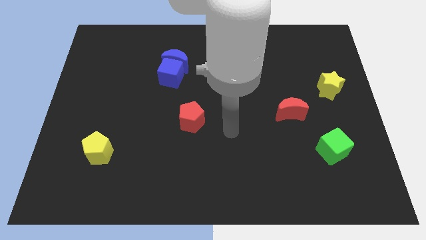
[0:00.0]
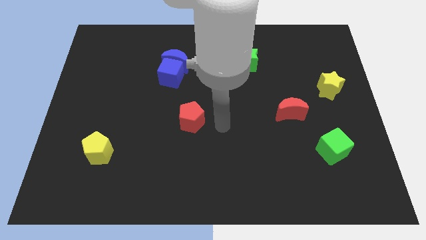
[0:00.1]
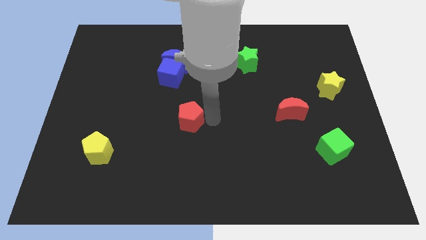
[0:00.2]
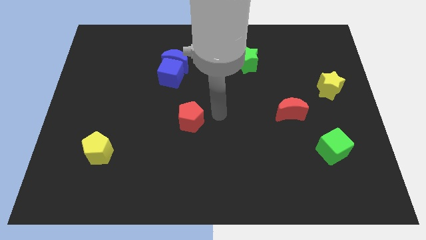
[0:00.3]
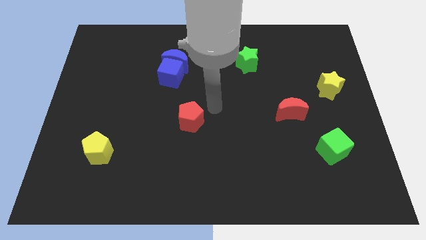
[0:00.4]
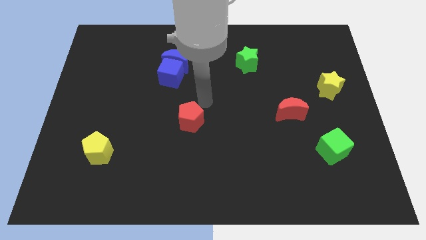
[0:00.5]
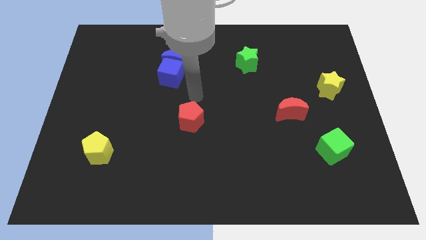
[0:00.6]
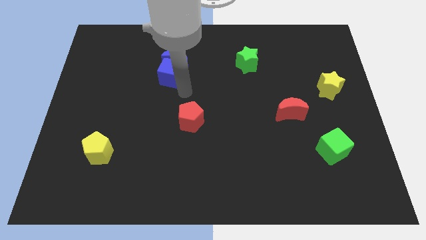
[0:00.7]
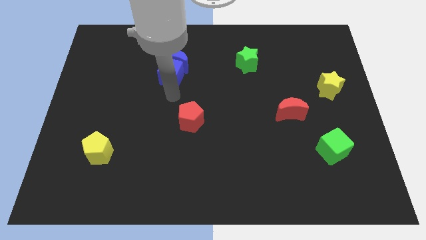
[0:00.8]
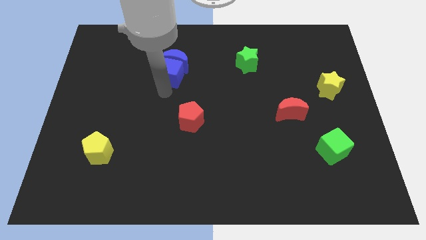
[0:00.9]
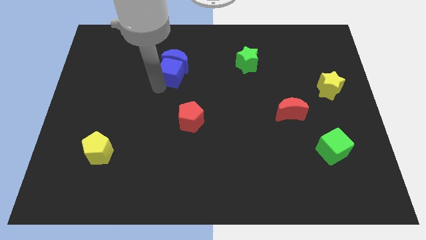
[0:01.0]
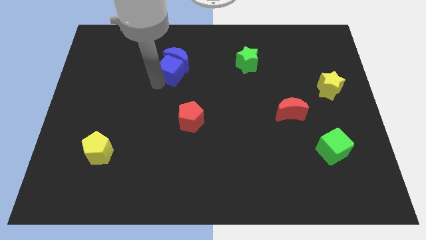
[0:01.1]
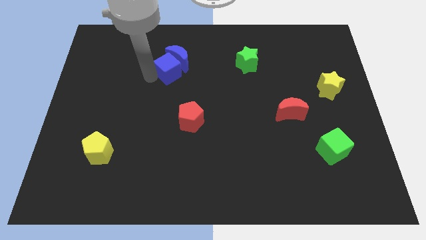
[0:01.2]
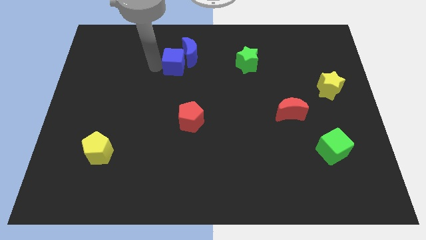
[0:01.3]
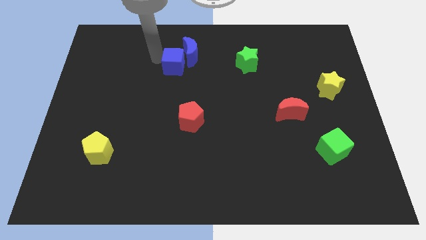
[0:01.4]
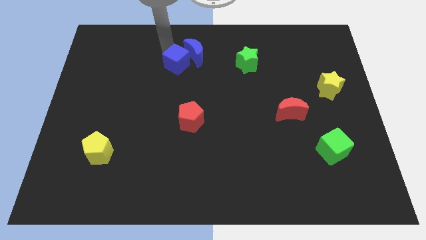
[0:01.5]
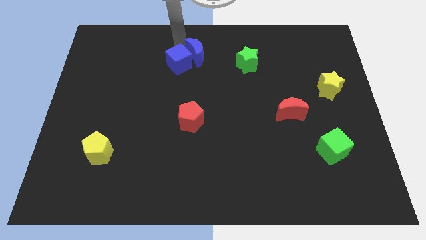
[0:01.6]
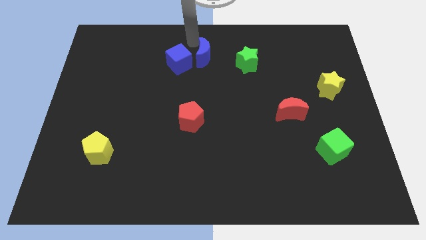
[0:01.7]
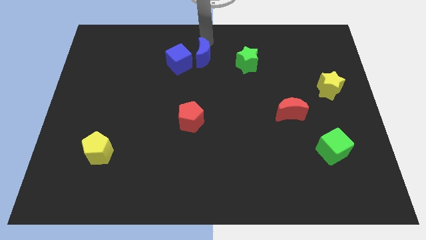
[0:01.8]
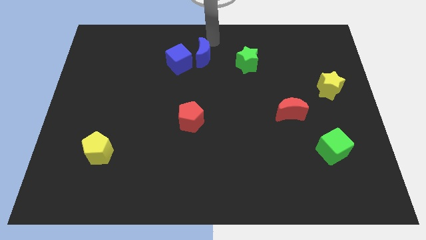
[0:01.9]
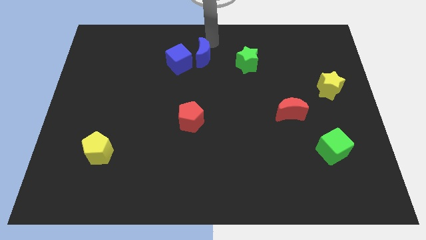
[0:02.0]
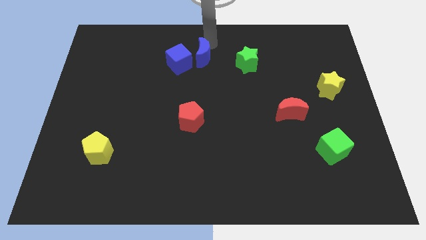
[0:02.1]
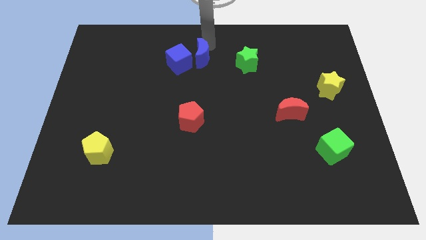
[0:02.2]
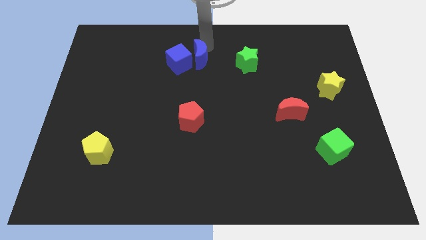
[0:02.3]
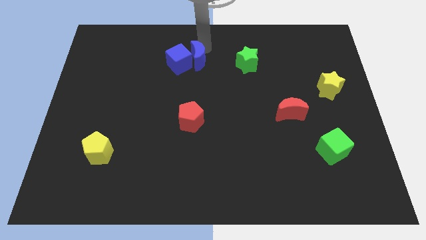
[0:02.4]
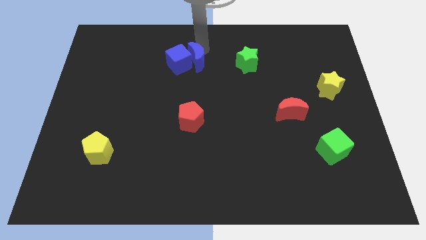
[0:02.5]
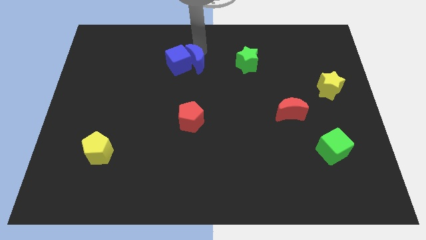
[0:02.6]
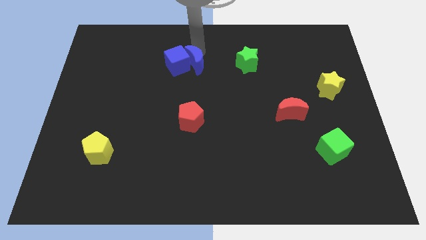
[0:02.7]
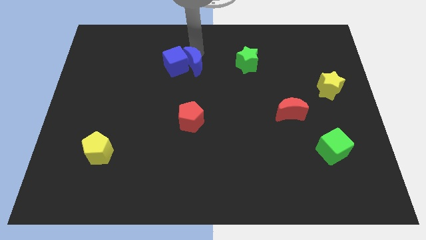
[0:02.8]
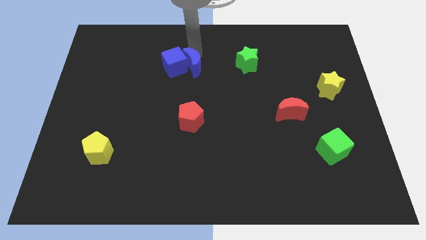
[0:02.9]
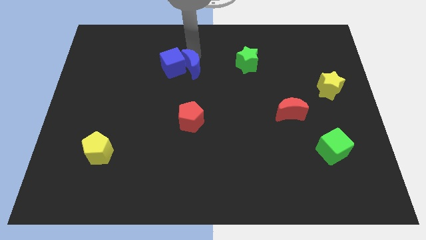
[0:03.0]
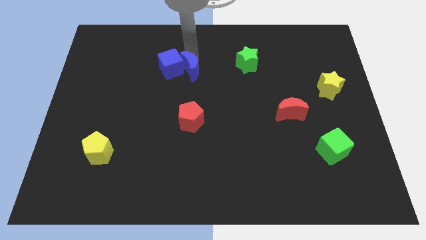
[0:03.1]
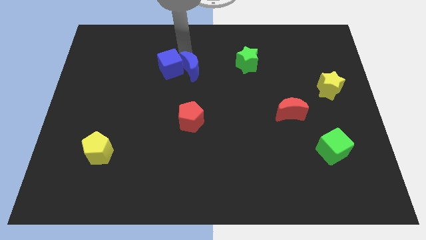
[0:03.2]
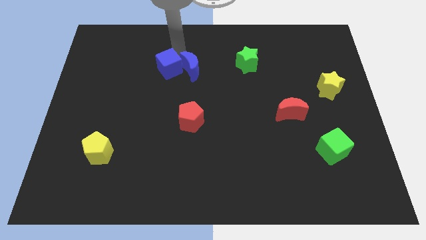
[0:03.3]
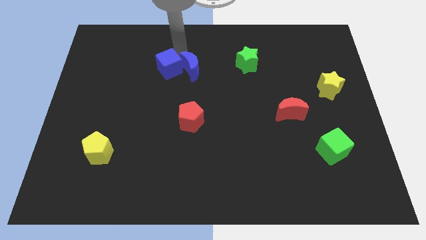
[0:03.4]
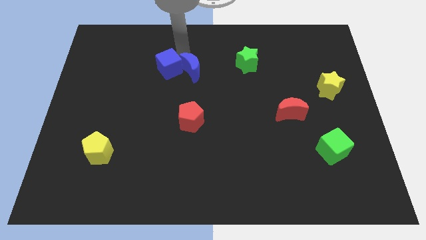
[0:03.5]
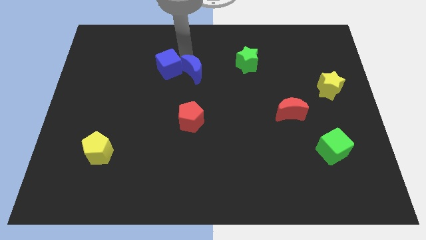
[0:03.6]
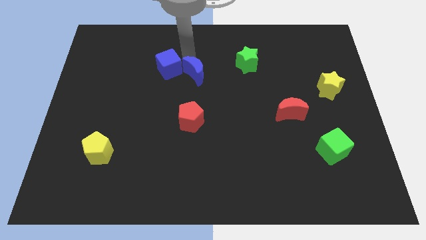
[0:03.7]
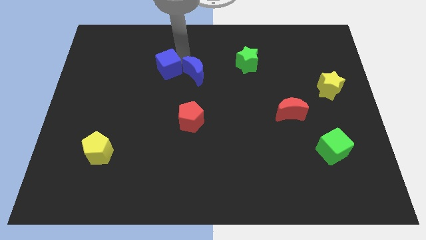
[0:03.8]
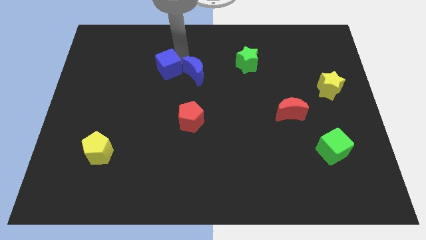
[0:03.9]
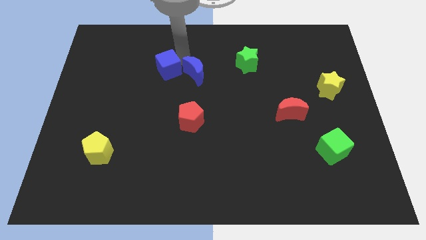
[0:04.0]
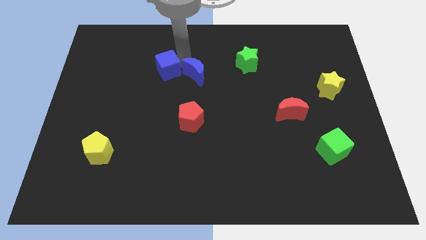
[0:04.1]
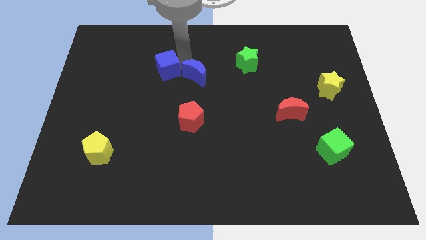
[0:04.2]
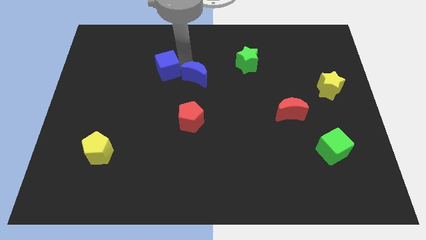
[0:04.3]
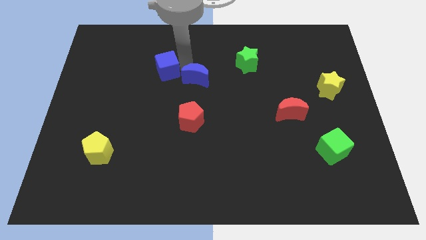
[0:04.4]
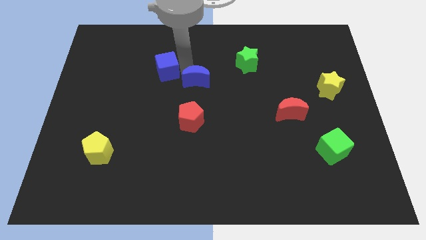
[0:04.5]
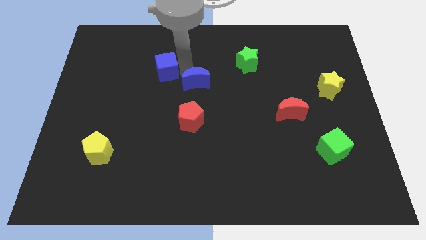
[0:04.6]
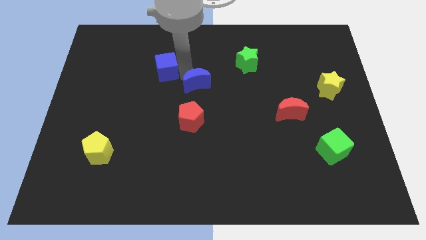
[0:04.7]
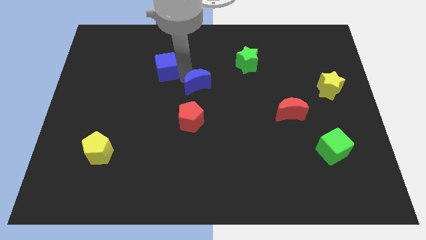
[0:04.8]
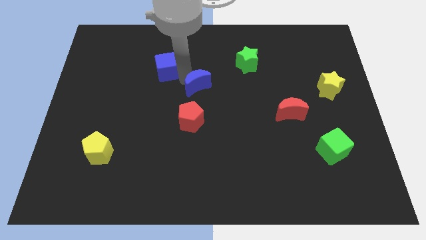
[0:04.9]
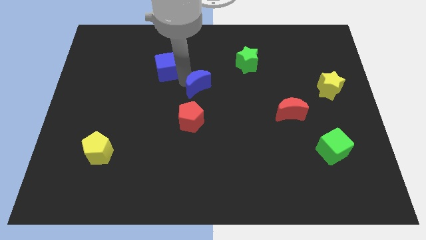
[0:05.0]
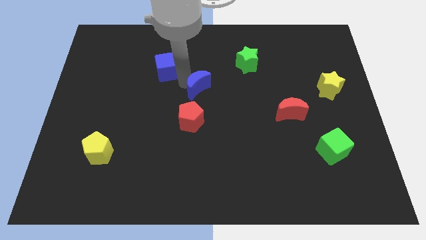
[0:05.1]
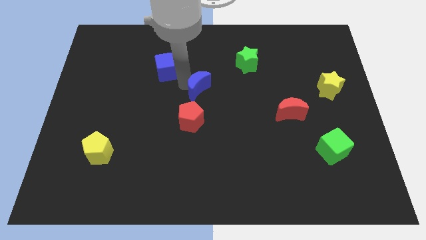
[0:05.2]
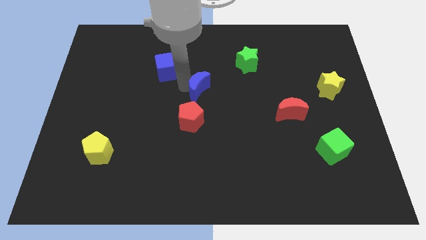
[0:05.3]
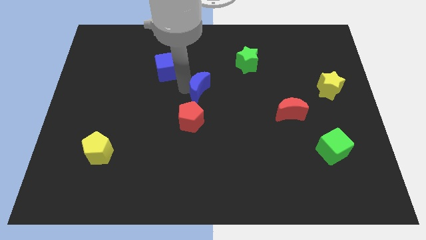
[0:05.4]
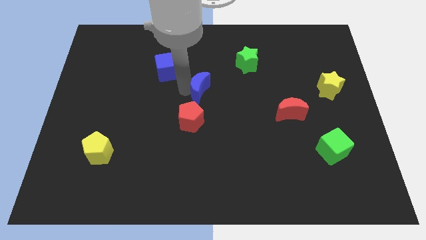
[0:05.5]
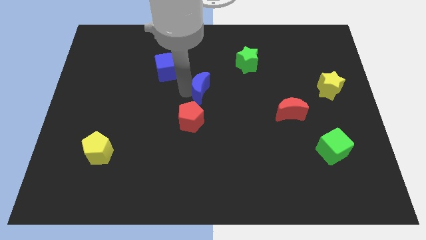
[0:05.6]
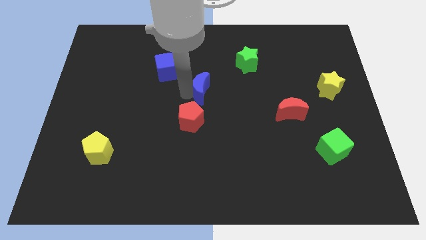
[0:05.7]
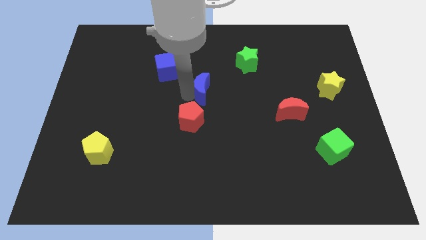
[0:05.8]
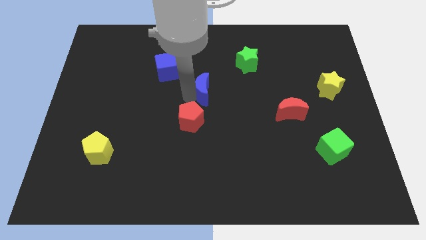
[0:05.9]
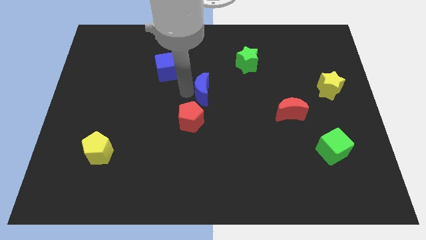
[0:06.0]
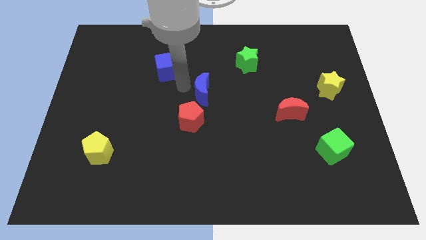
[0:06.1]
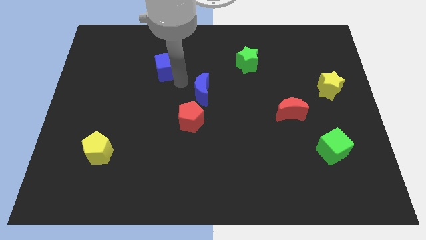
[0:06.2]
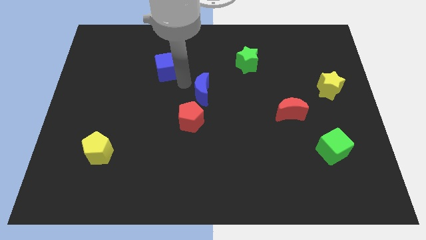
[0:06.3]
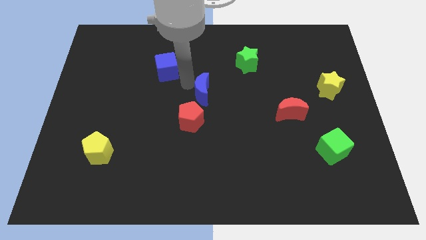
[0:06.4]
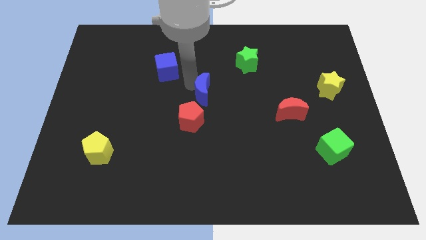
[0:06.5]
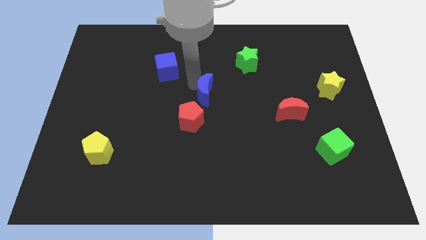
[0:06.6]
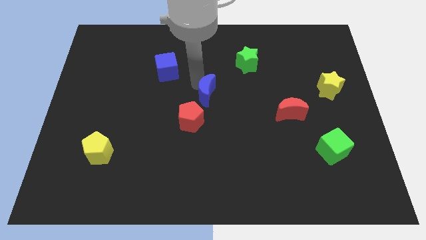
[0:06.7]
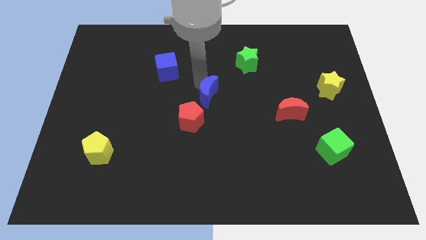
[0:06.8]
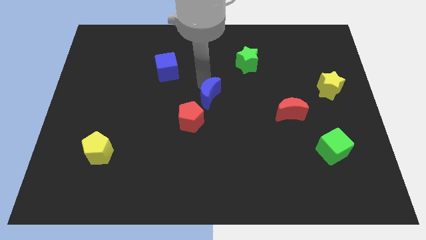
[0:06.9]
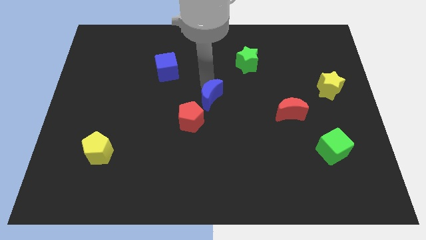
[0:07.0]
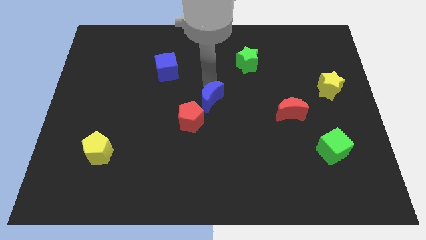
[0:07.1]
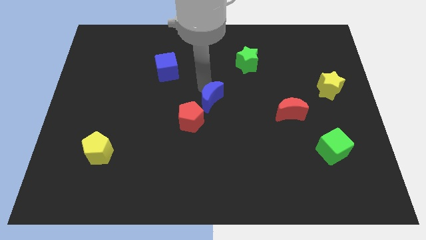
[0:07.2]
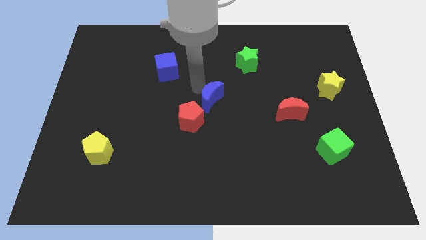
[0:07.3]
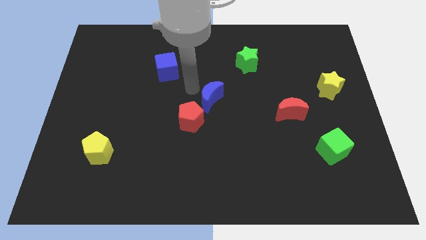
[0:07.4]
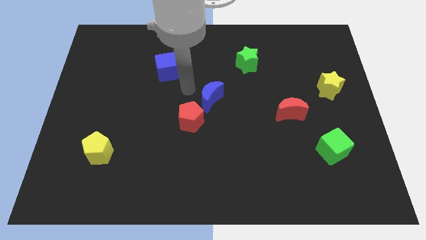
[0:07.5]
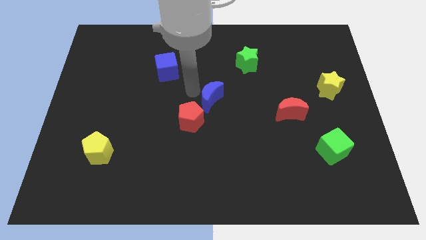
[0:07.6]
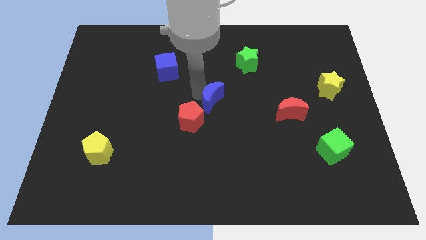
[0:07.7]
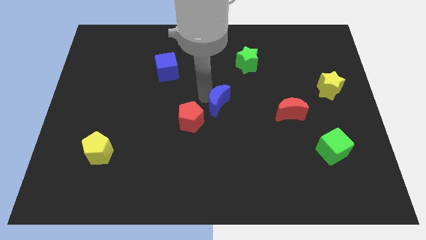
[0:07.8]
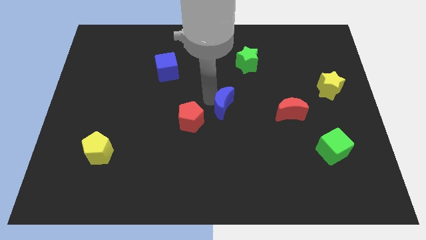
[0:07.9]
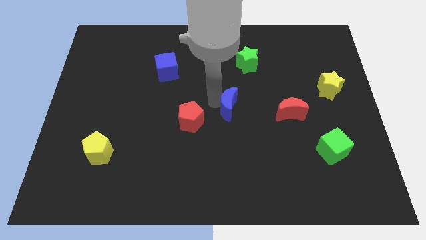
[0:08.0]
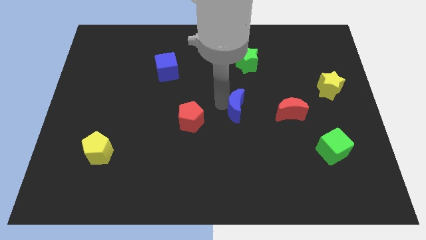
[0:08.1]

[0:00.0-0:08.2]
slide the blue moon down and to the right
